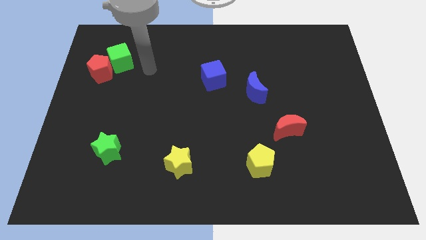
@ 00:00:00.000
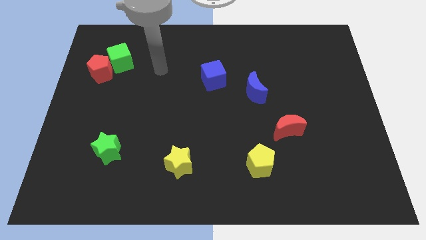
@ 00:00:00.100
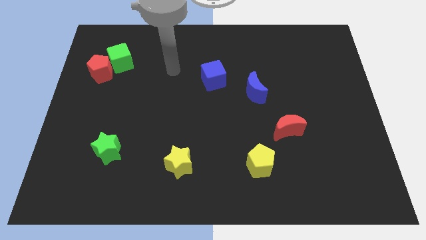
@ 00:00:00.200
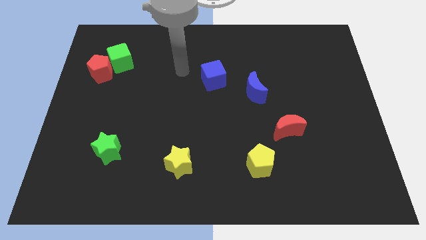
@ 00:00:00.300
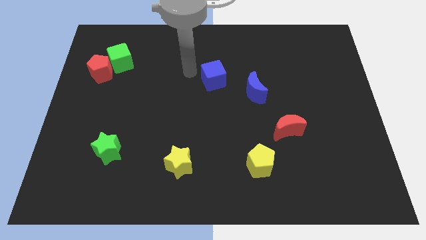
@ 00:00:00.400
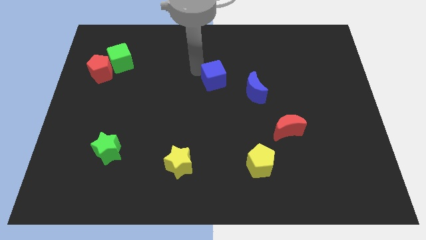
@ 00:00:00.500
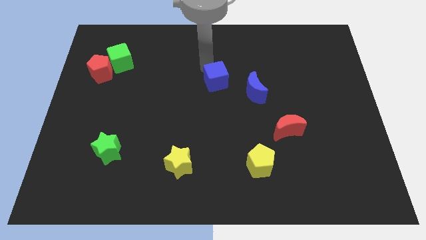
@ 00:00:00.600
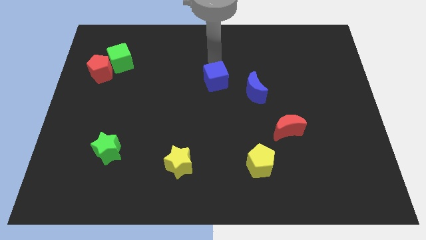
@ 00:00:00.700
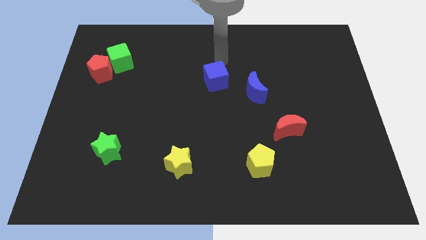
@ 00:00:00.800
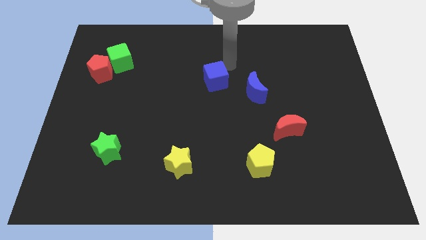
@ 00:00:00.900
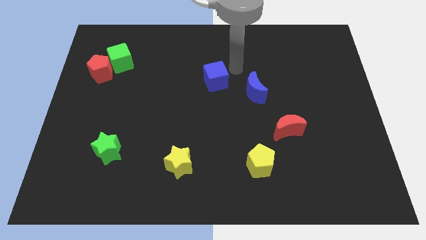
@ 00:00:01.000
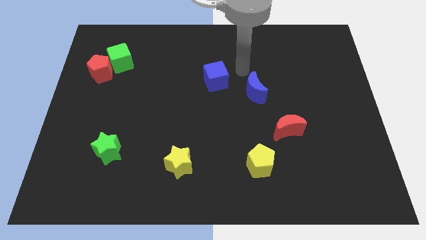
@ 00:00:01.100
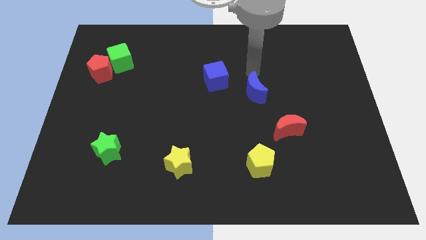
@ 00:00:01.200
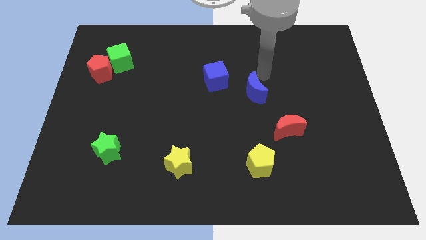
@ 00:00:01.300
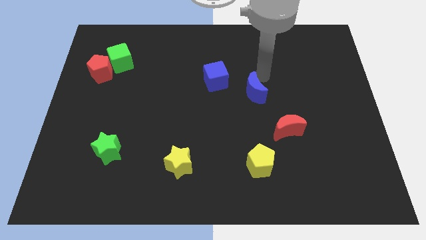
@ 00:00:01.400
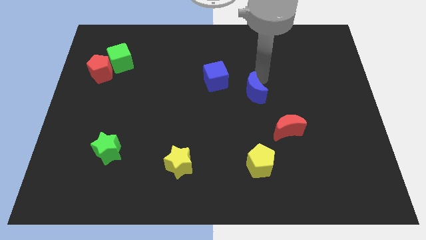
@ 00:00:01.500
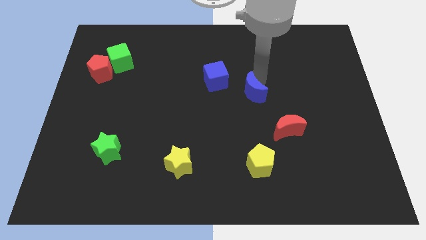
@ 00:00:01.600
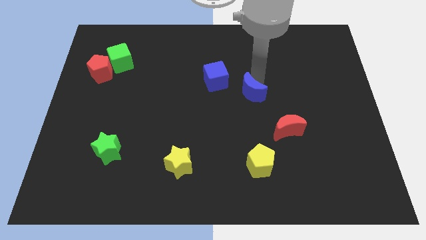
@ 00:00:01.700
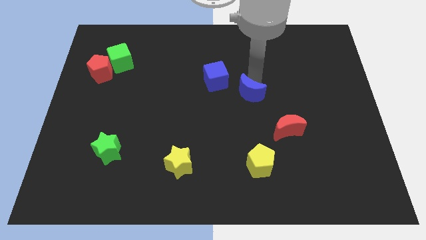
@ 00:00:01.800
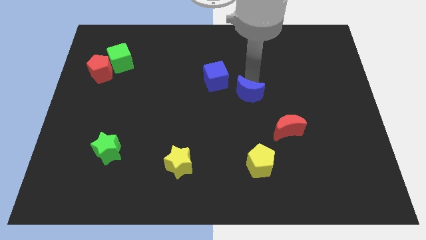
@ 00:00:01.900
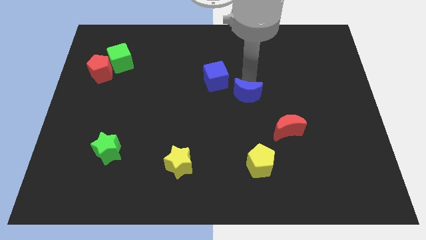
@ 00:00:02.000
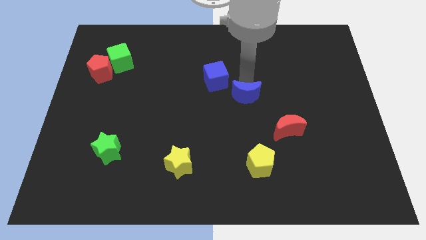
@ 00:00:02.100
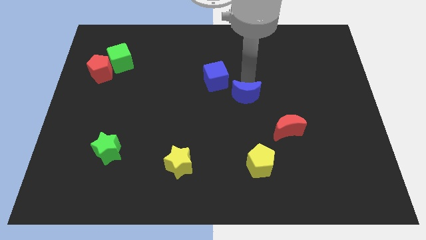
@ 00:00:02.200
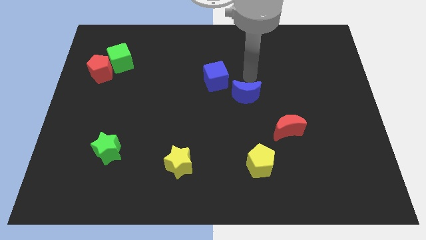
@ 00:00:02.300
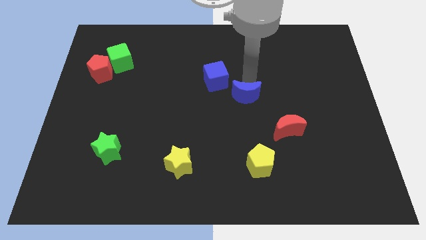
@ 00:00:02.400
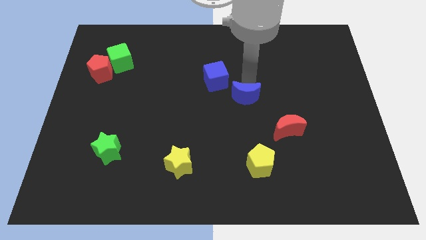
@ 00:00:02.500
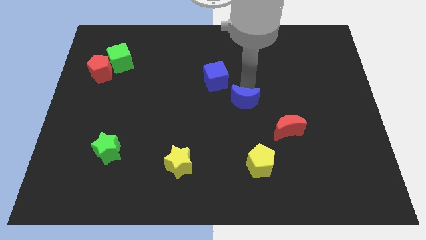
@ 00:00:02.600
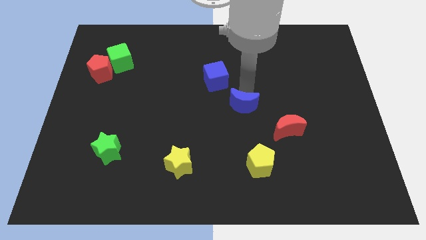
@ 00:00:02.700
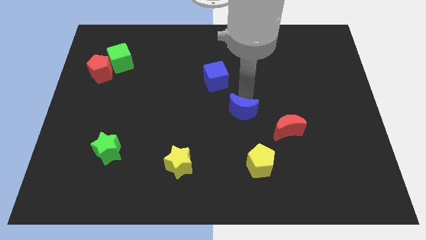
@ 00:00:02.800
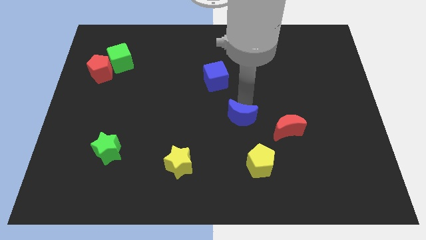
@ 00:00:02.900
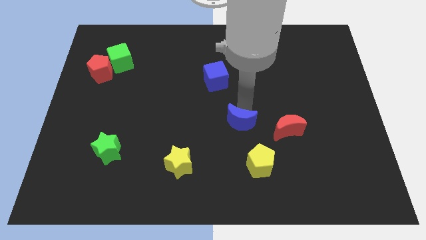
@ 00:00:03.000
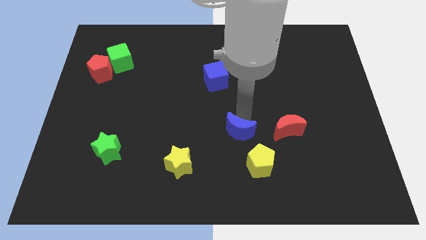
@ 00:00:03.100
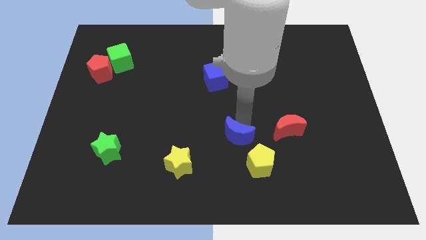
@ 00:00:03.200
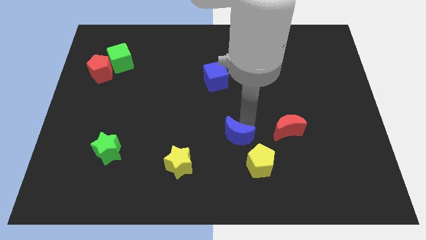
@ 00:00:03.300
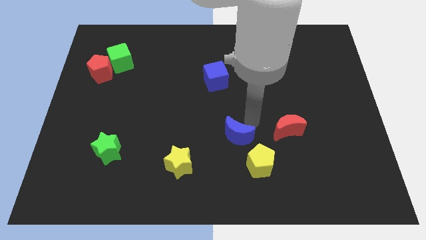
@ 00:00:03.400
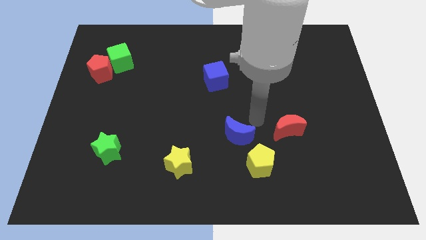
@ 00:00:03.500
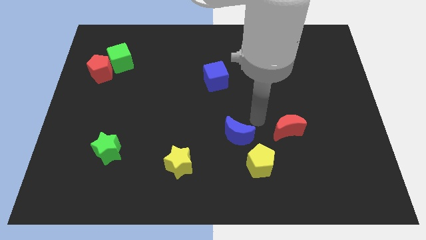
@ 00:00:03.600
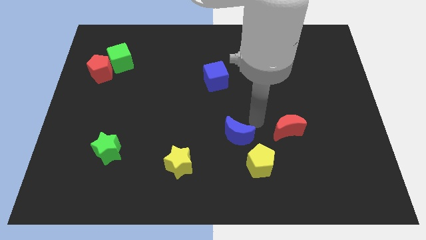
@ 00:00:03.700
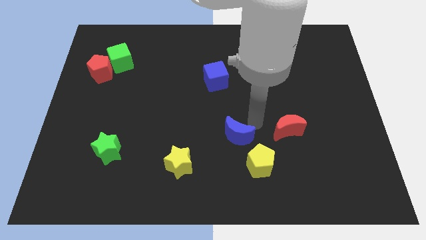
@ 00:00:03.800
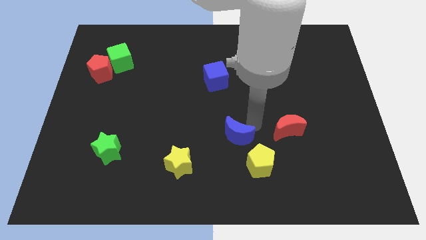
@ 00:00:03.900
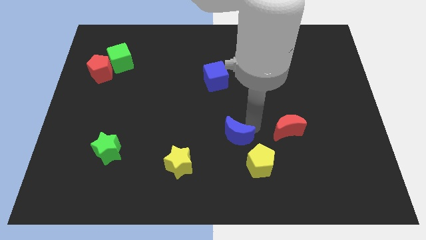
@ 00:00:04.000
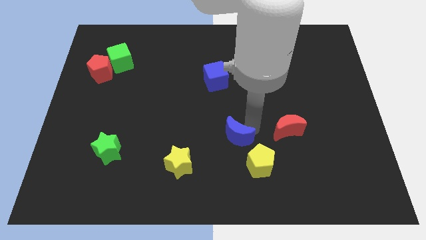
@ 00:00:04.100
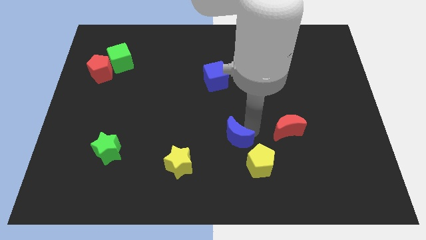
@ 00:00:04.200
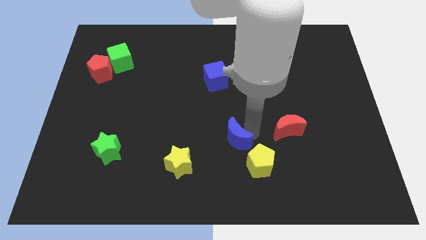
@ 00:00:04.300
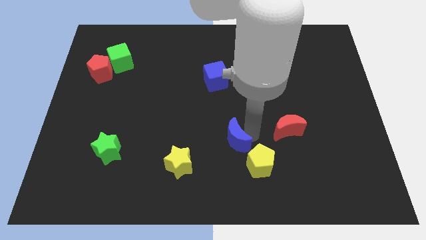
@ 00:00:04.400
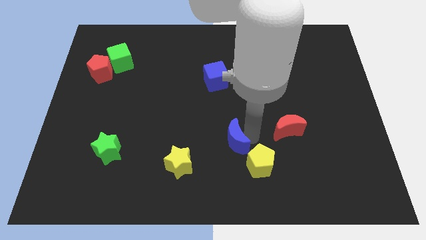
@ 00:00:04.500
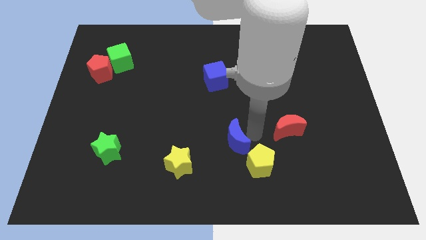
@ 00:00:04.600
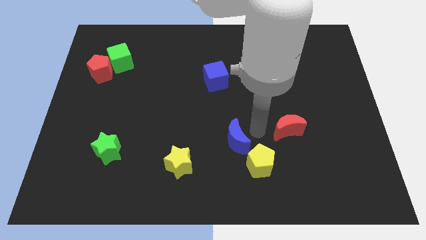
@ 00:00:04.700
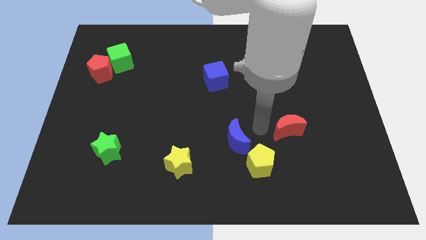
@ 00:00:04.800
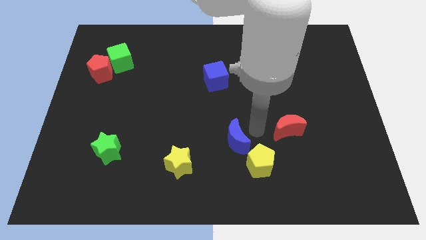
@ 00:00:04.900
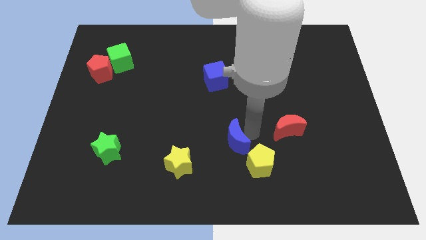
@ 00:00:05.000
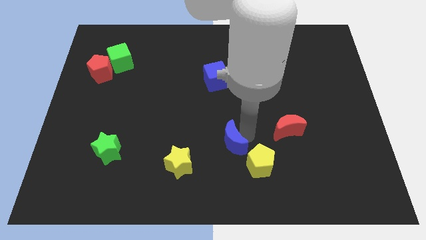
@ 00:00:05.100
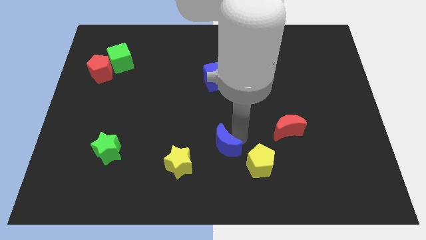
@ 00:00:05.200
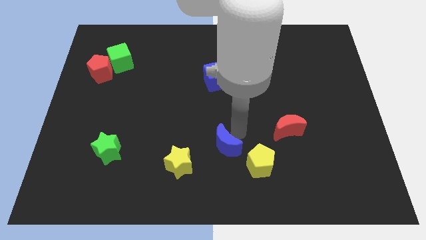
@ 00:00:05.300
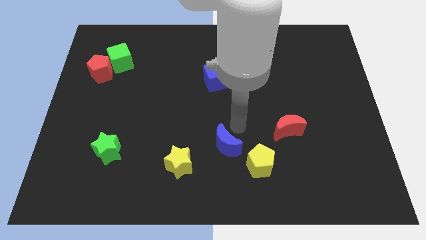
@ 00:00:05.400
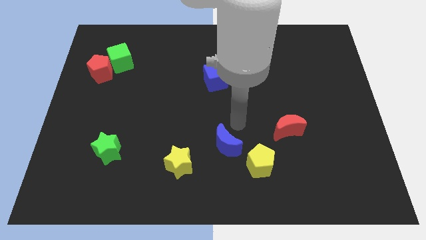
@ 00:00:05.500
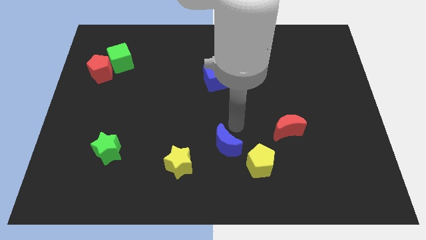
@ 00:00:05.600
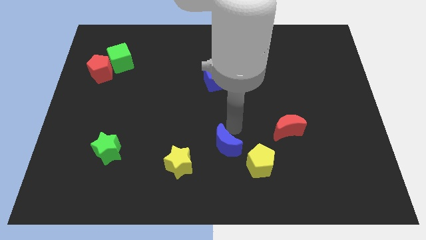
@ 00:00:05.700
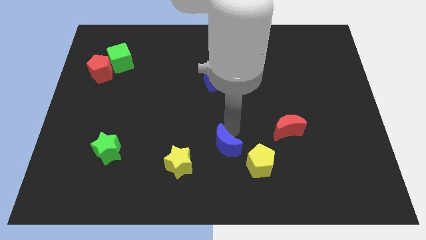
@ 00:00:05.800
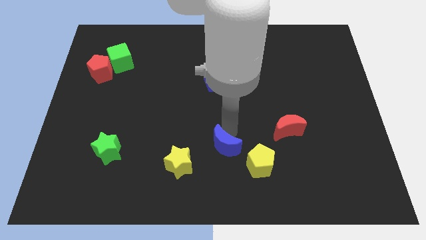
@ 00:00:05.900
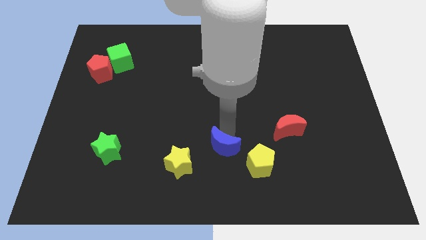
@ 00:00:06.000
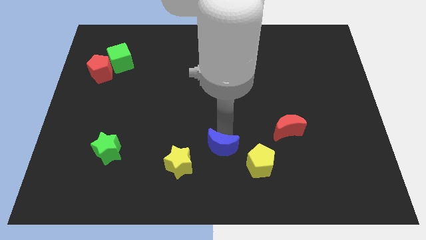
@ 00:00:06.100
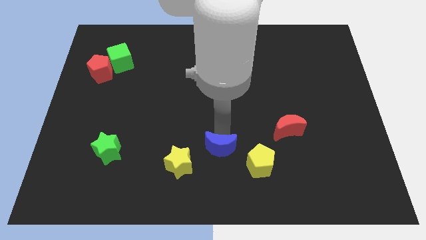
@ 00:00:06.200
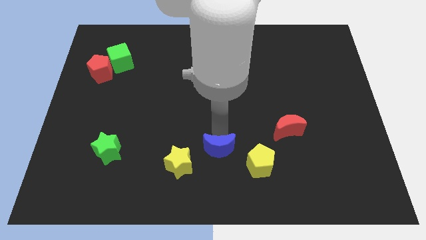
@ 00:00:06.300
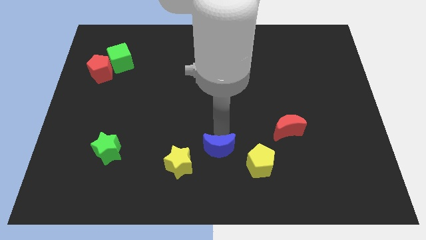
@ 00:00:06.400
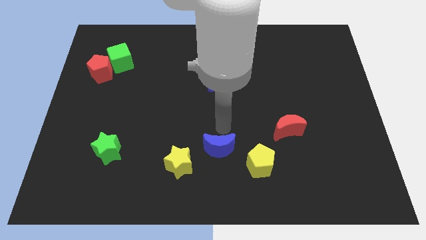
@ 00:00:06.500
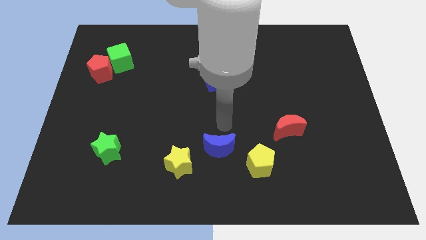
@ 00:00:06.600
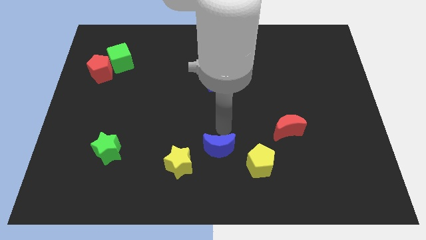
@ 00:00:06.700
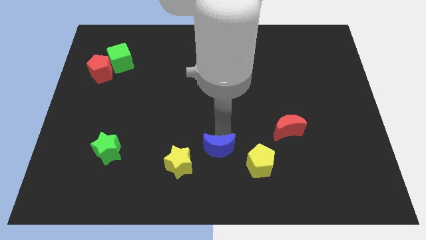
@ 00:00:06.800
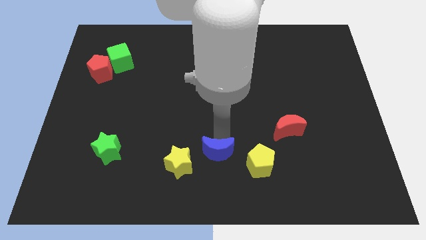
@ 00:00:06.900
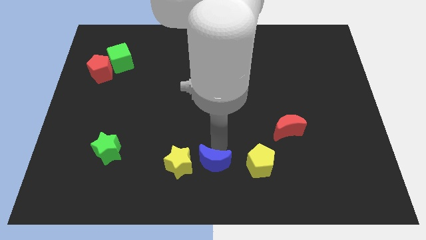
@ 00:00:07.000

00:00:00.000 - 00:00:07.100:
push the blue moon to the bottom

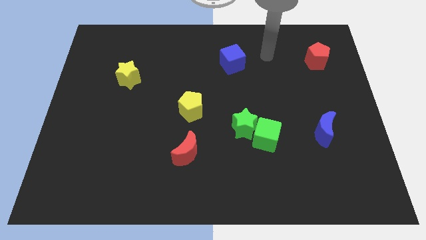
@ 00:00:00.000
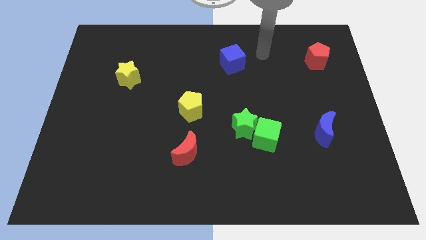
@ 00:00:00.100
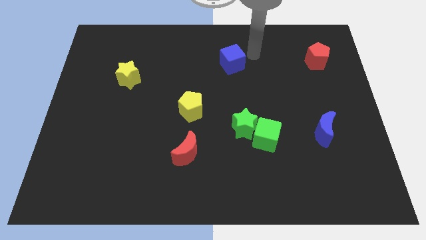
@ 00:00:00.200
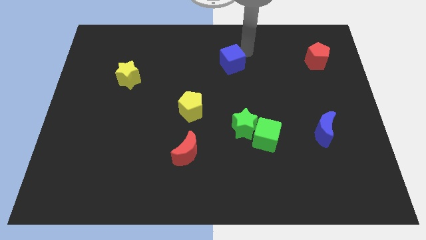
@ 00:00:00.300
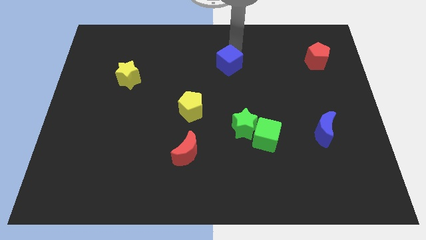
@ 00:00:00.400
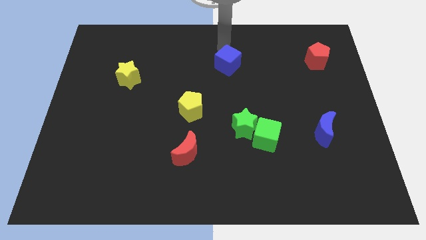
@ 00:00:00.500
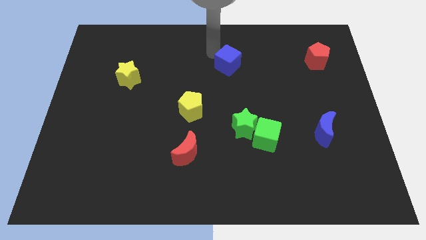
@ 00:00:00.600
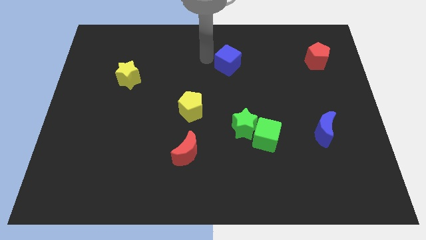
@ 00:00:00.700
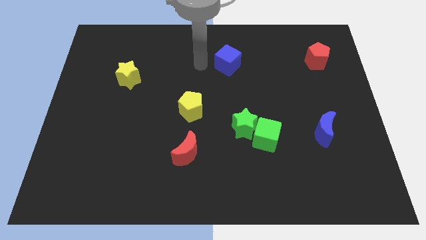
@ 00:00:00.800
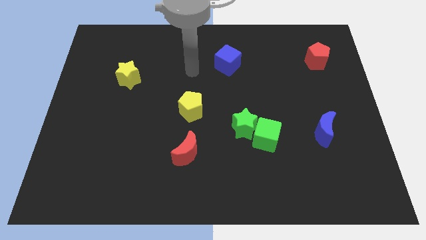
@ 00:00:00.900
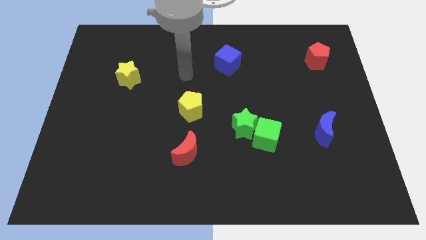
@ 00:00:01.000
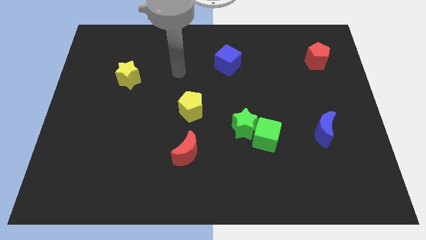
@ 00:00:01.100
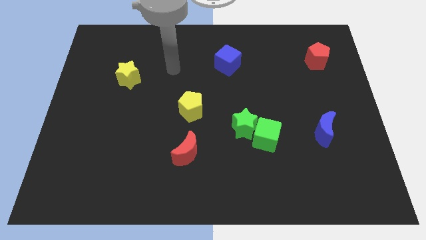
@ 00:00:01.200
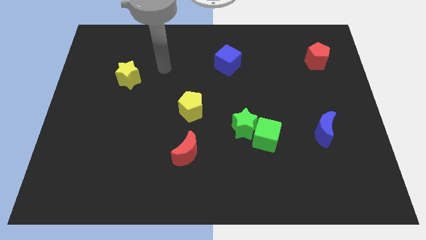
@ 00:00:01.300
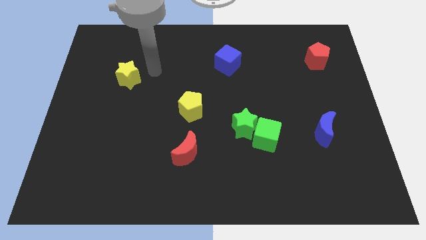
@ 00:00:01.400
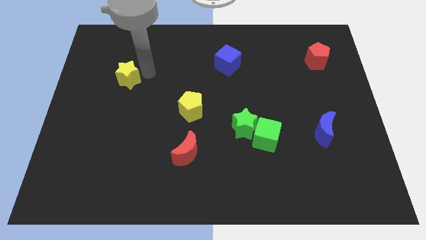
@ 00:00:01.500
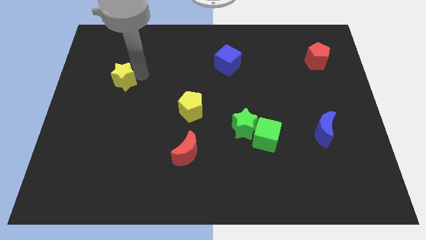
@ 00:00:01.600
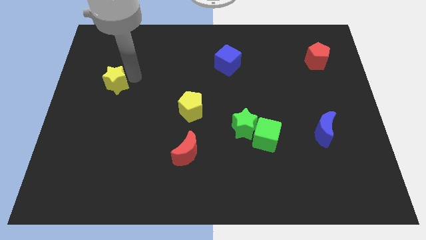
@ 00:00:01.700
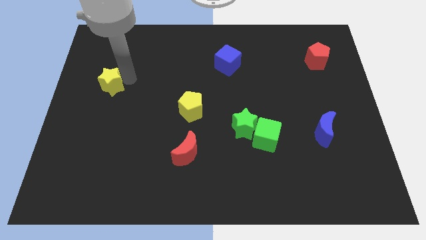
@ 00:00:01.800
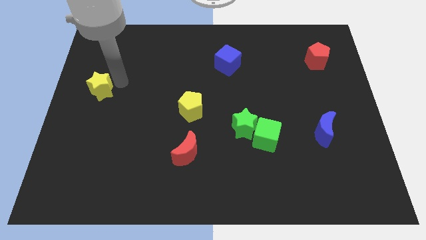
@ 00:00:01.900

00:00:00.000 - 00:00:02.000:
push the yellow star to the left side of the board
